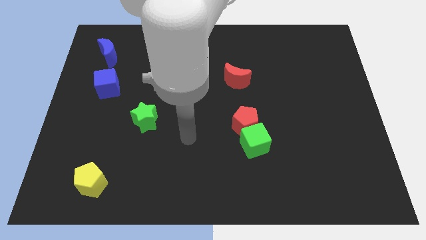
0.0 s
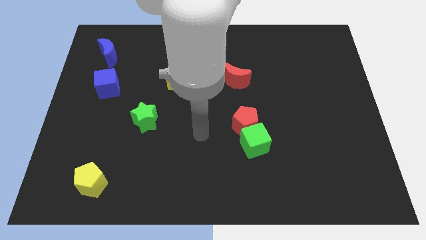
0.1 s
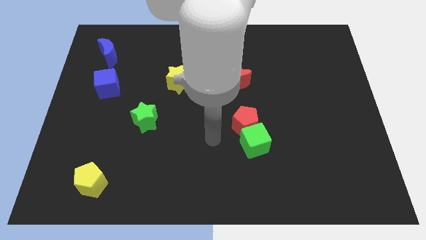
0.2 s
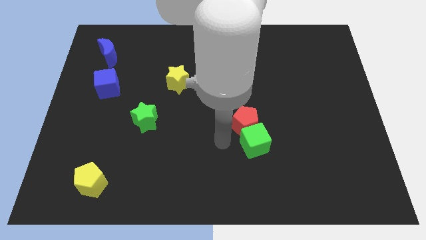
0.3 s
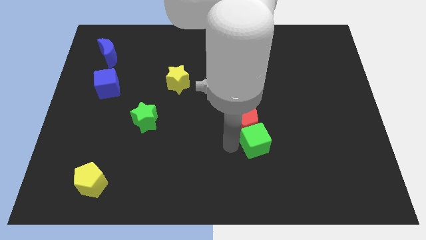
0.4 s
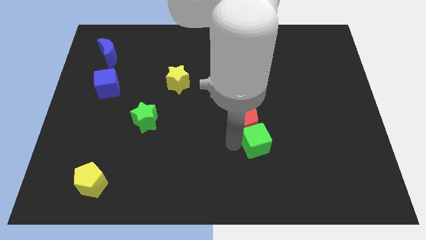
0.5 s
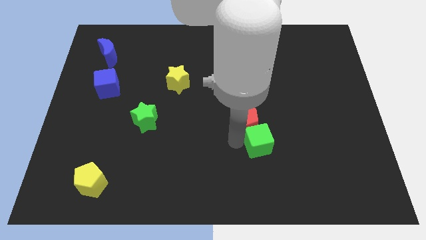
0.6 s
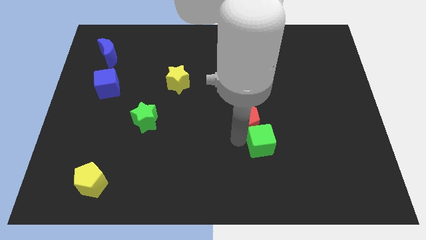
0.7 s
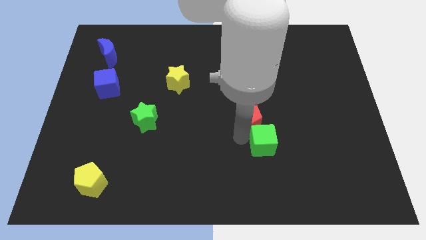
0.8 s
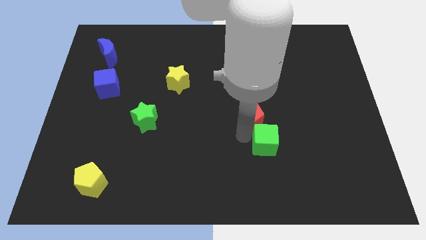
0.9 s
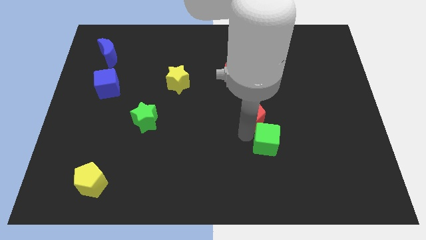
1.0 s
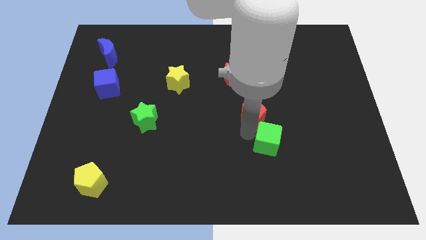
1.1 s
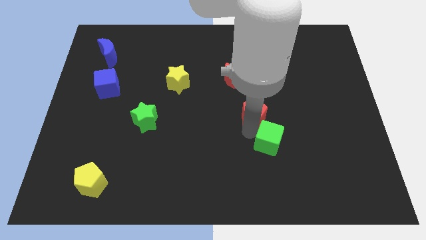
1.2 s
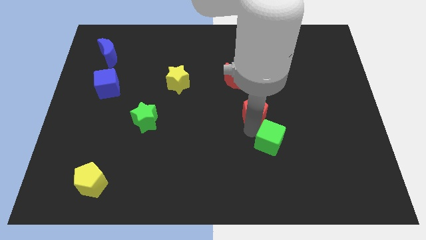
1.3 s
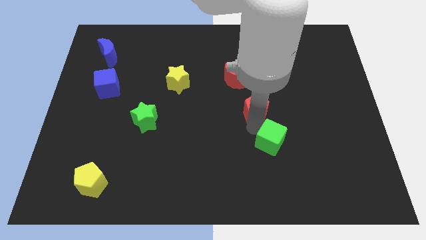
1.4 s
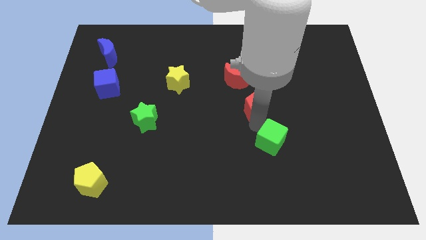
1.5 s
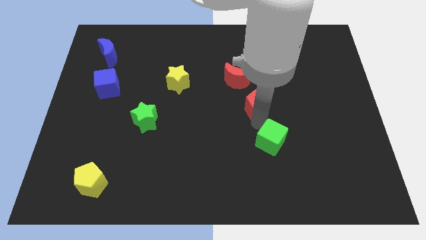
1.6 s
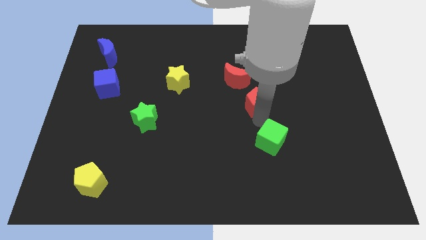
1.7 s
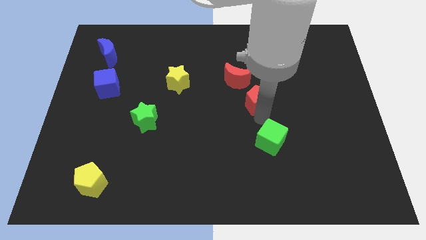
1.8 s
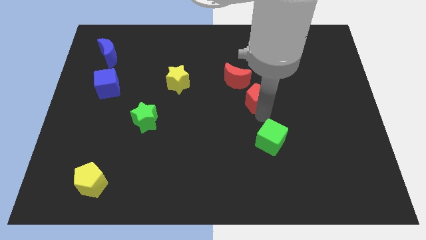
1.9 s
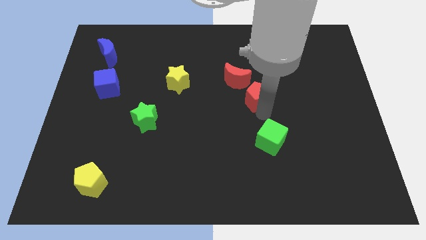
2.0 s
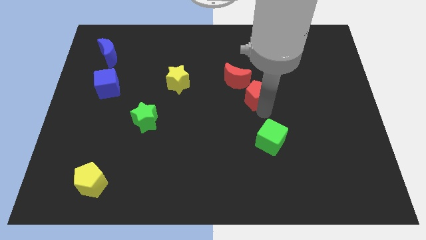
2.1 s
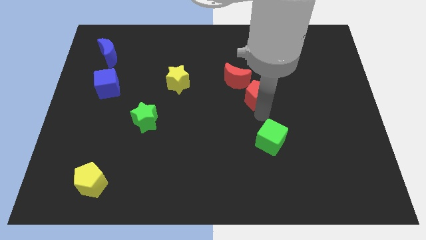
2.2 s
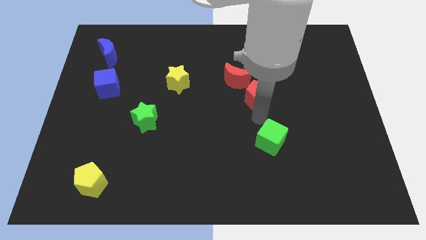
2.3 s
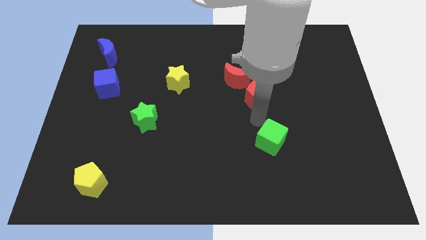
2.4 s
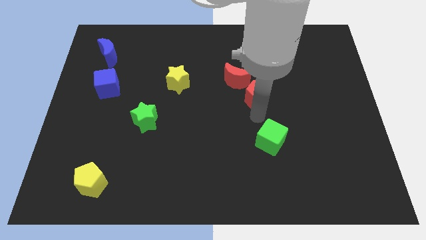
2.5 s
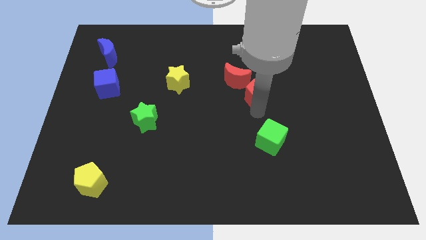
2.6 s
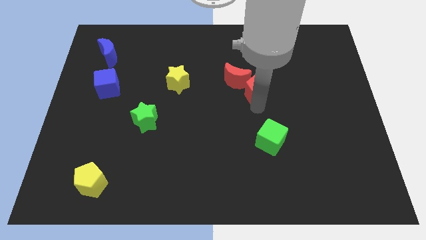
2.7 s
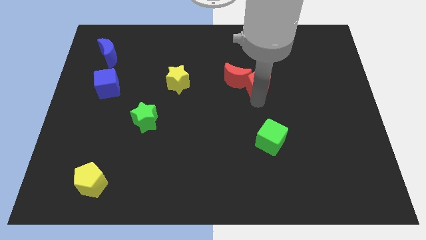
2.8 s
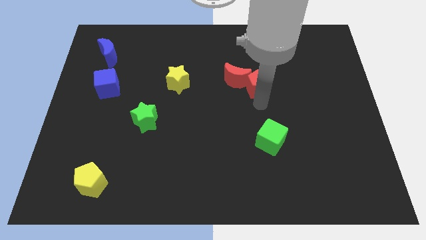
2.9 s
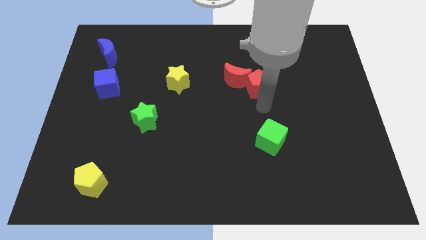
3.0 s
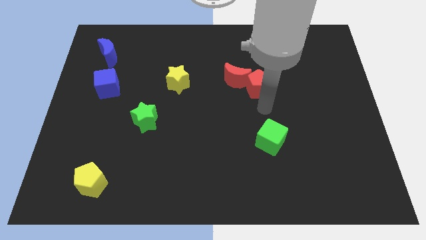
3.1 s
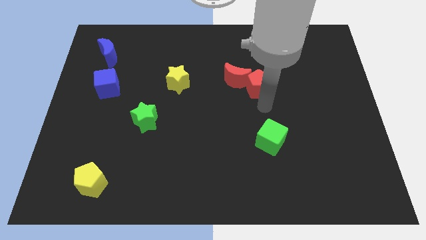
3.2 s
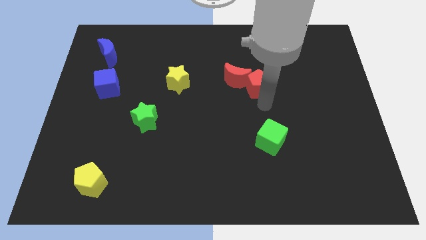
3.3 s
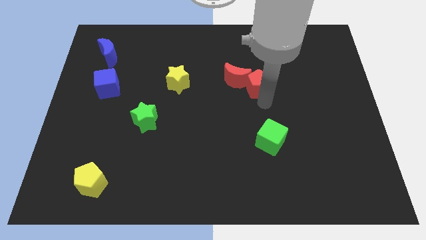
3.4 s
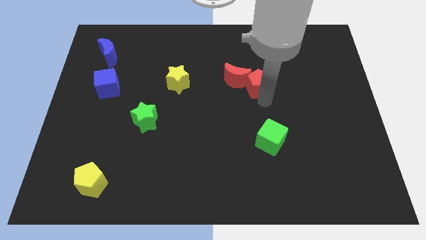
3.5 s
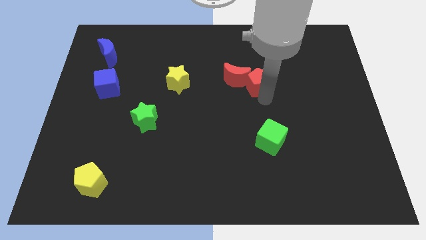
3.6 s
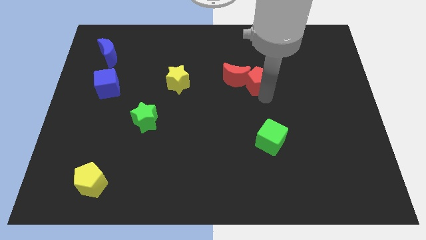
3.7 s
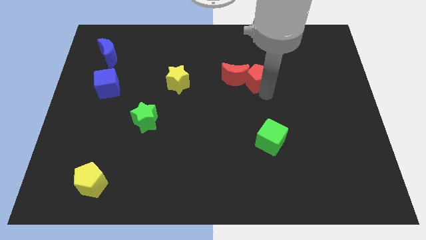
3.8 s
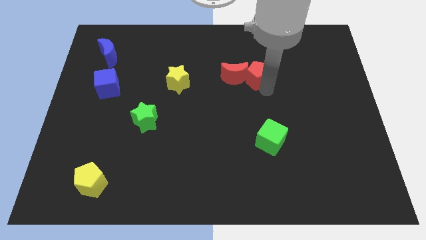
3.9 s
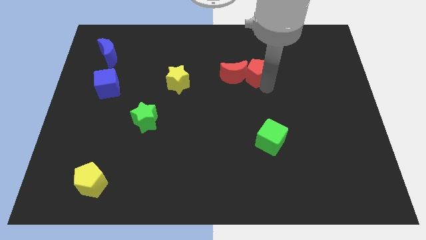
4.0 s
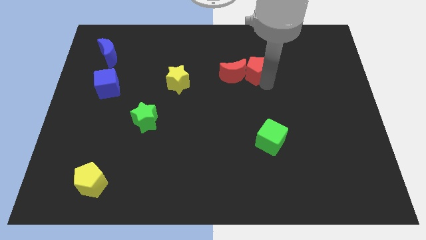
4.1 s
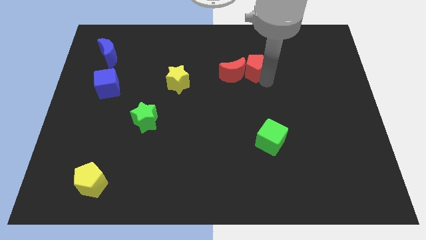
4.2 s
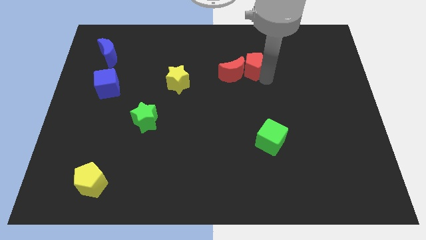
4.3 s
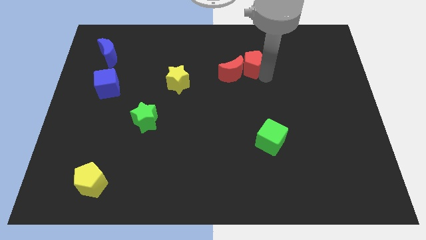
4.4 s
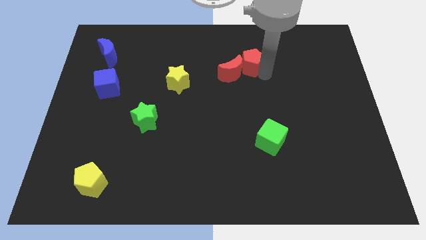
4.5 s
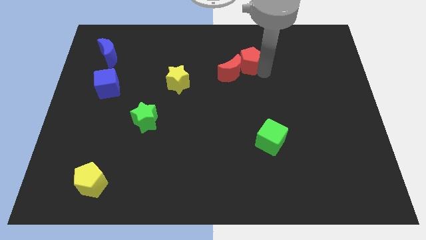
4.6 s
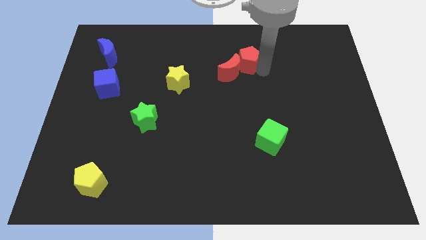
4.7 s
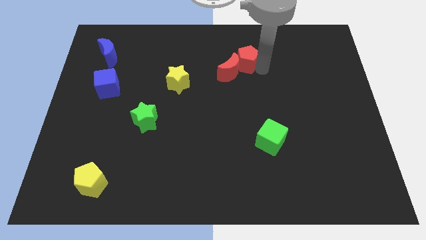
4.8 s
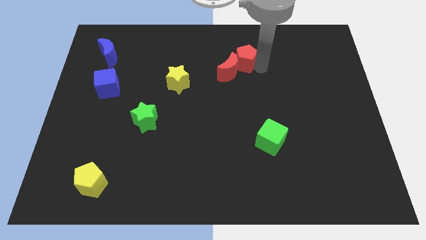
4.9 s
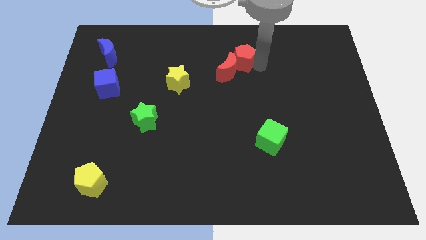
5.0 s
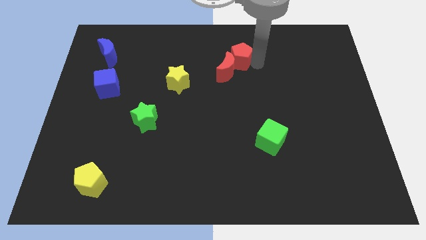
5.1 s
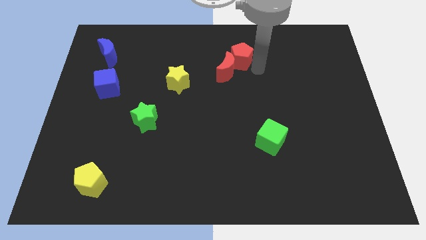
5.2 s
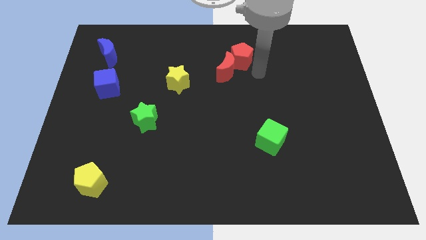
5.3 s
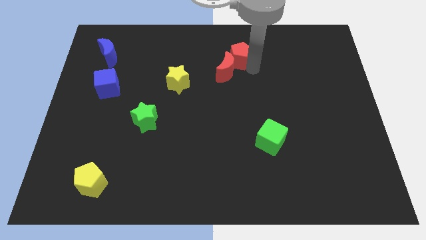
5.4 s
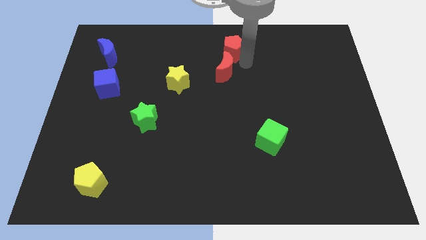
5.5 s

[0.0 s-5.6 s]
move the red pentagon to the top

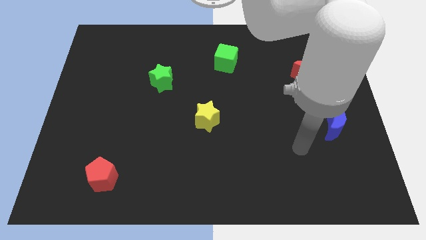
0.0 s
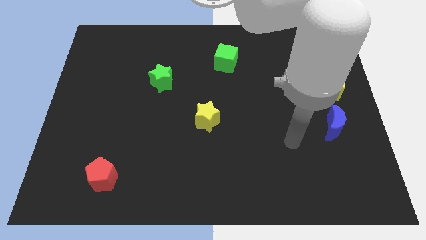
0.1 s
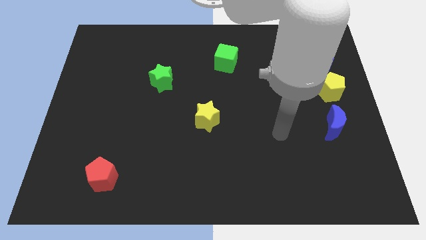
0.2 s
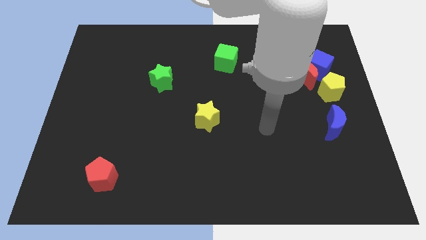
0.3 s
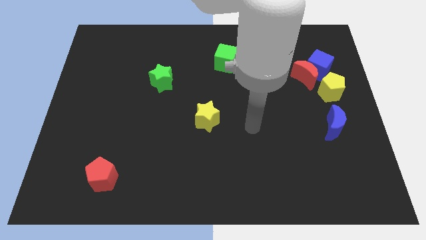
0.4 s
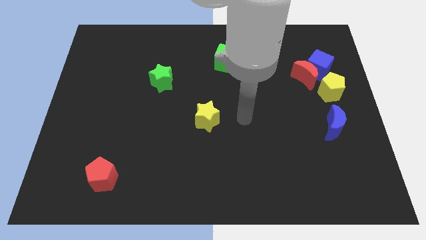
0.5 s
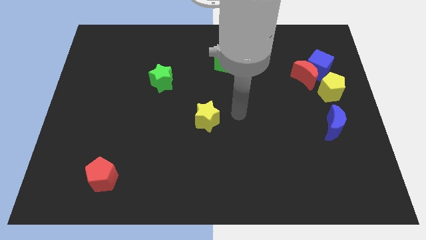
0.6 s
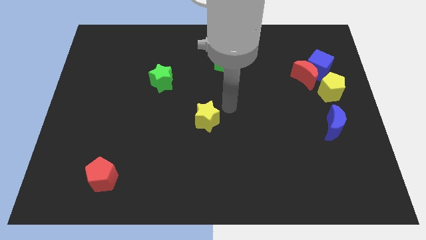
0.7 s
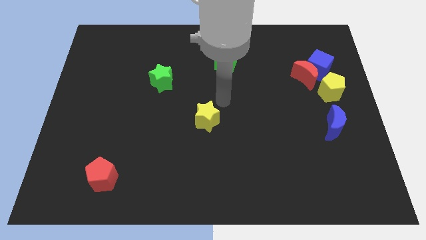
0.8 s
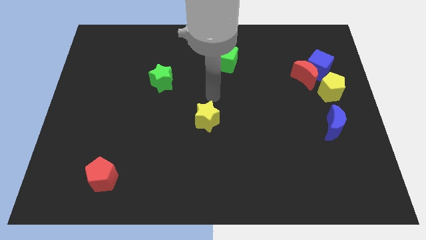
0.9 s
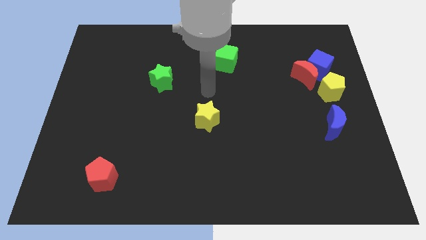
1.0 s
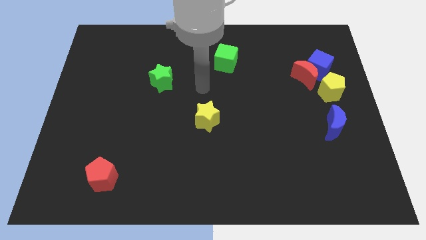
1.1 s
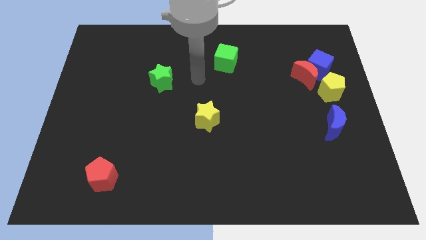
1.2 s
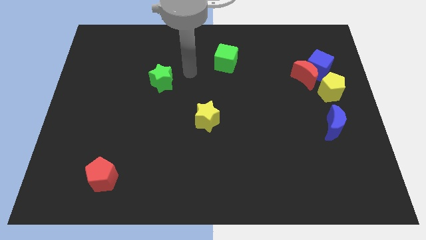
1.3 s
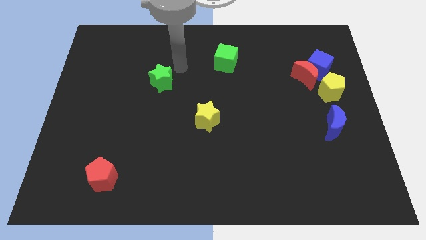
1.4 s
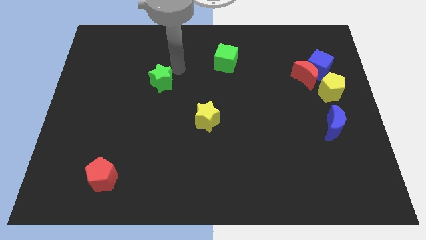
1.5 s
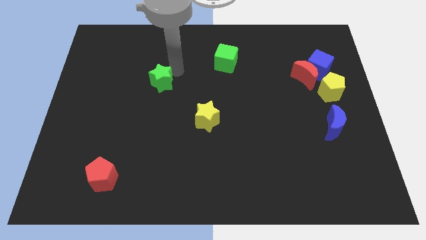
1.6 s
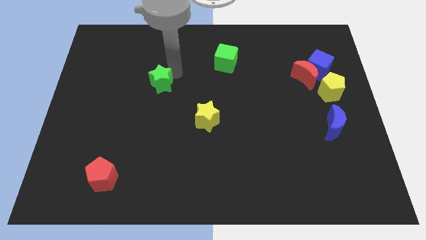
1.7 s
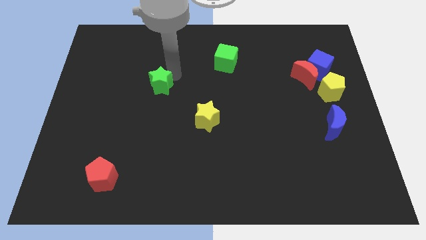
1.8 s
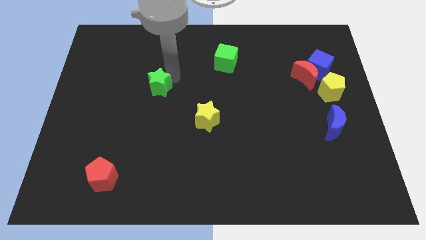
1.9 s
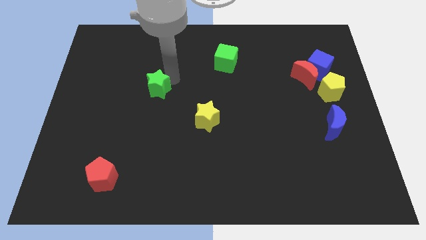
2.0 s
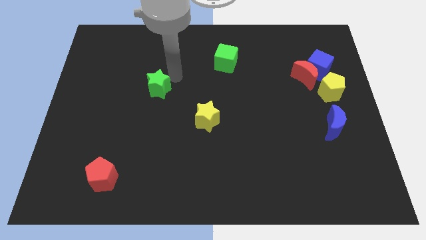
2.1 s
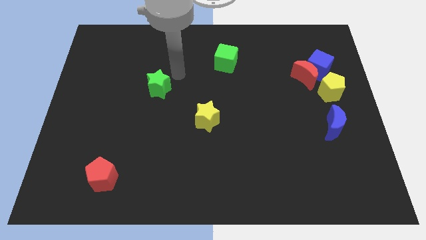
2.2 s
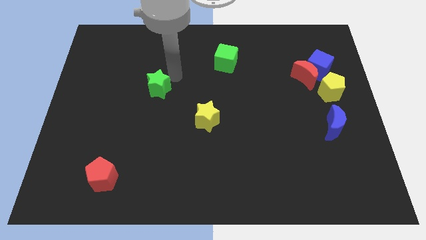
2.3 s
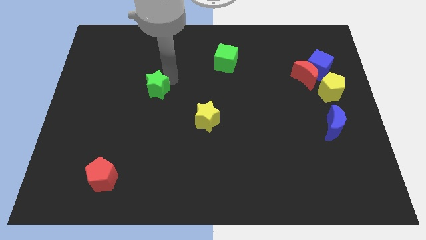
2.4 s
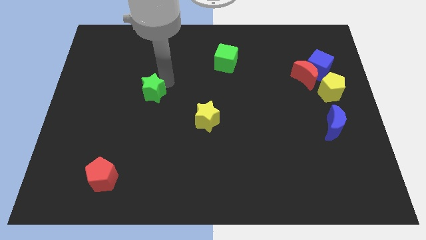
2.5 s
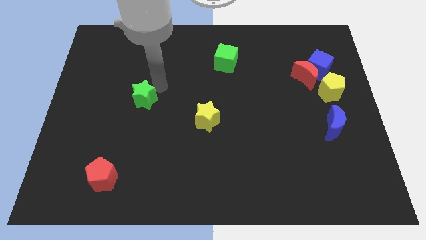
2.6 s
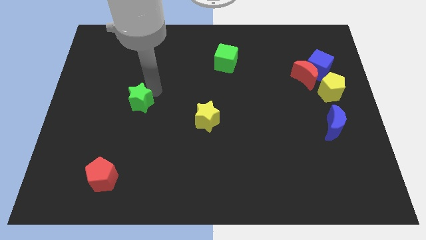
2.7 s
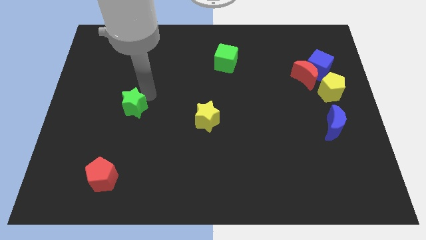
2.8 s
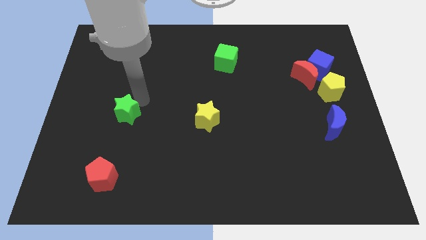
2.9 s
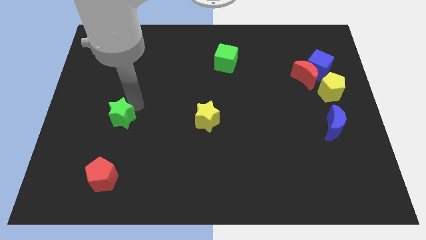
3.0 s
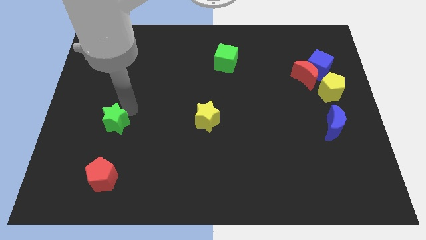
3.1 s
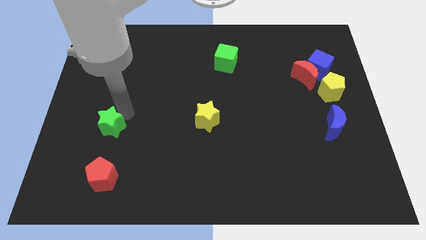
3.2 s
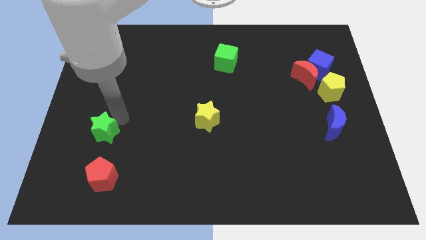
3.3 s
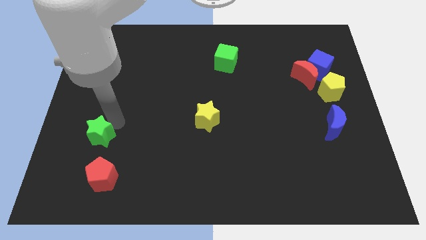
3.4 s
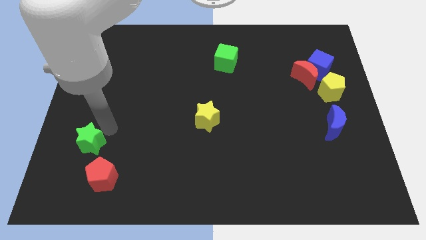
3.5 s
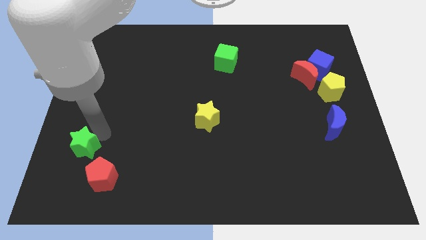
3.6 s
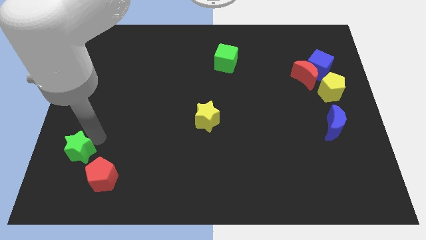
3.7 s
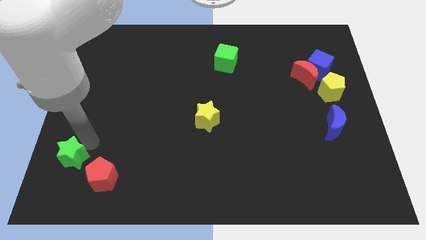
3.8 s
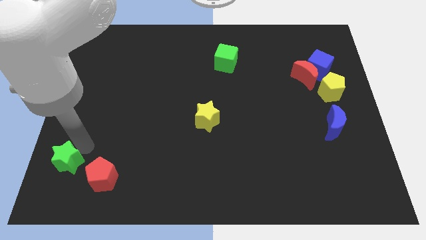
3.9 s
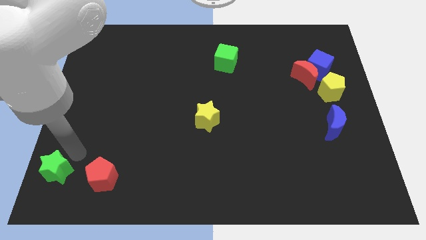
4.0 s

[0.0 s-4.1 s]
push the green star to the lower left corner
